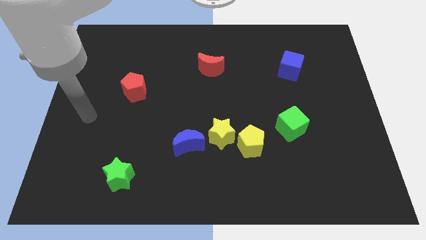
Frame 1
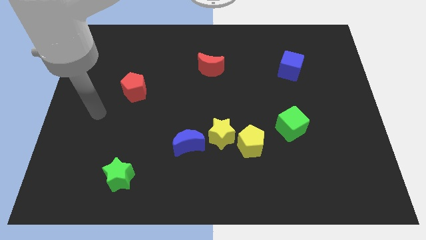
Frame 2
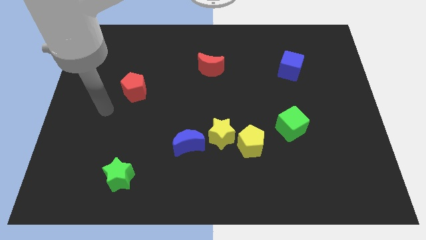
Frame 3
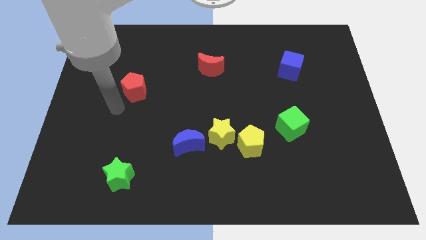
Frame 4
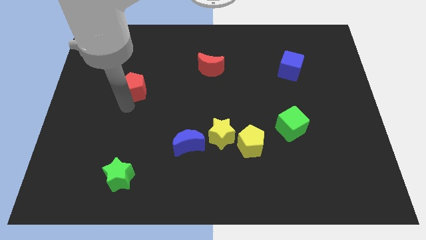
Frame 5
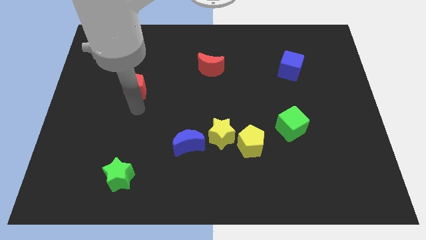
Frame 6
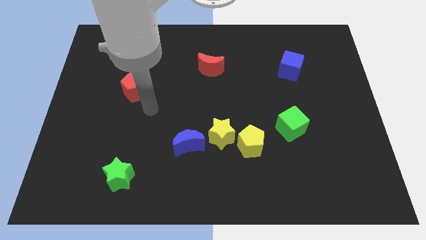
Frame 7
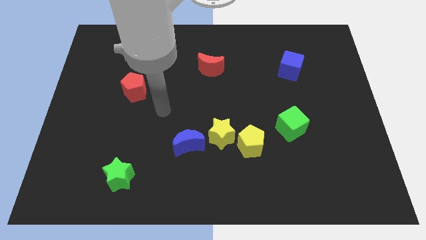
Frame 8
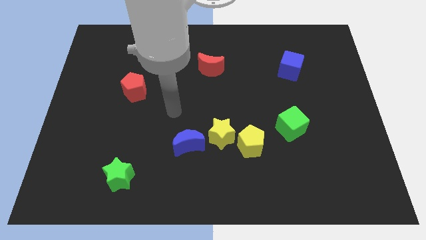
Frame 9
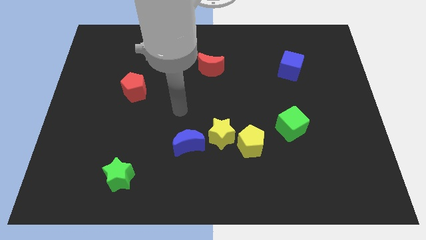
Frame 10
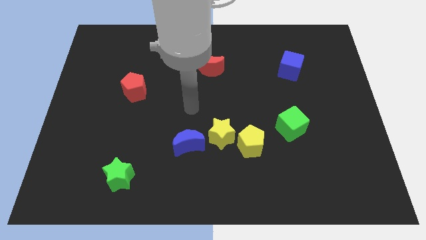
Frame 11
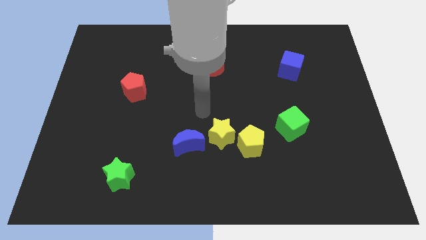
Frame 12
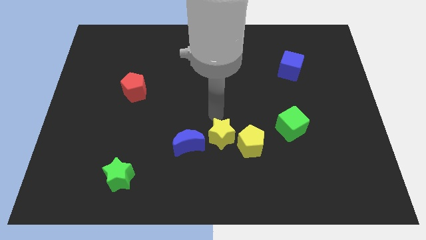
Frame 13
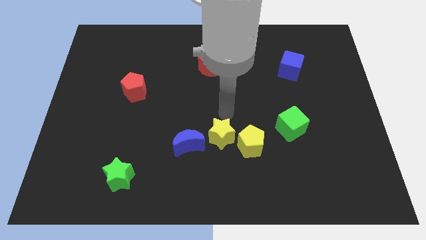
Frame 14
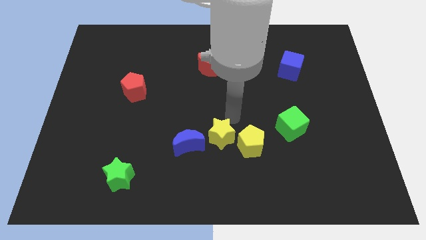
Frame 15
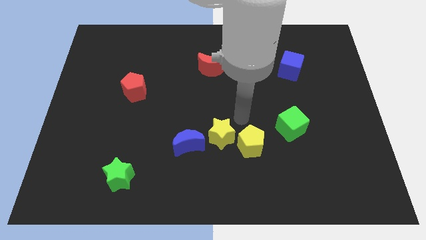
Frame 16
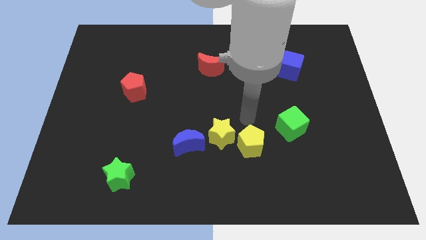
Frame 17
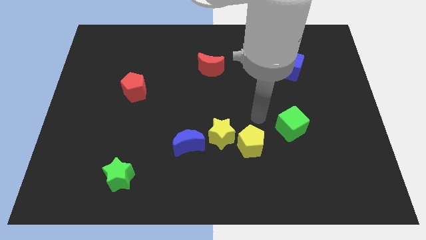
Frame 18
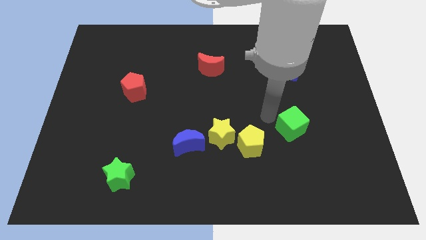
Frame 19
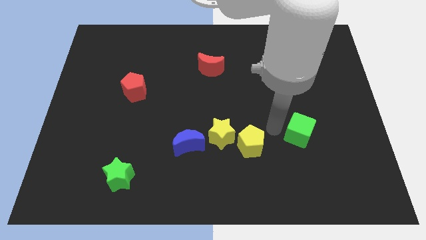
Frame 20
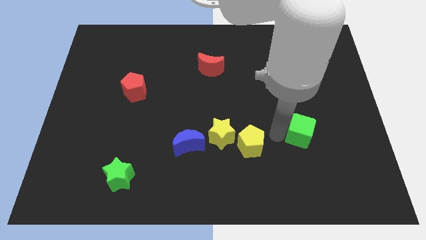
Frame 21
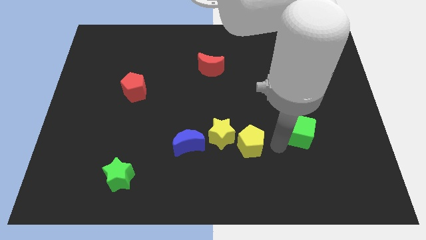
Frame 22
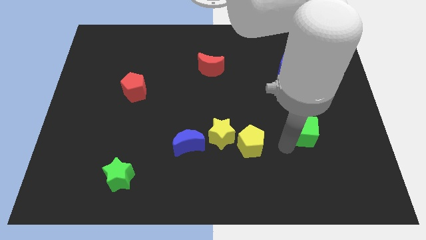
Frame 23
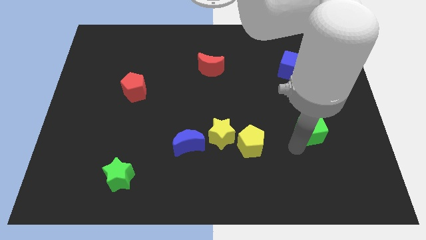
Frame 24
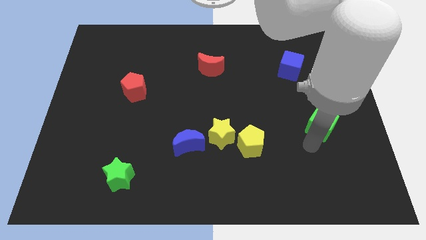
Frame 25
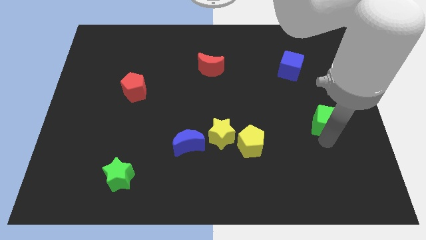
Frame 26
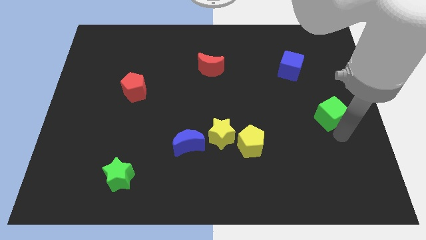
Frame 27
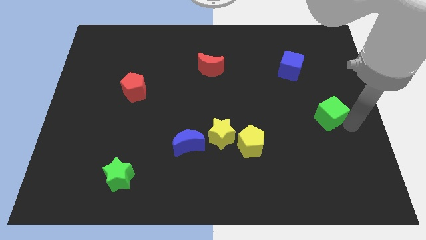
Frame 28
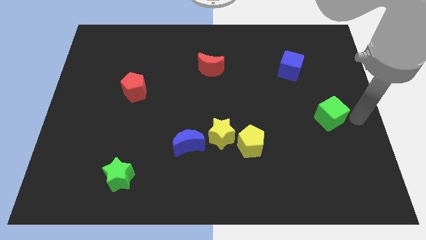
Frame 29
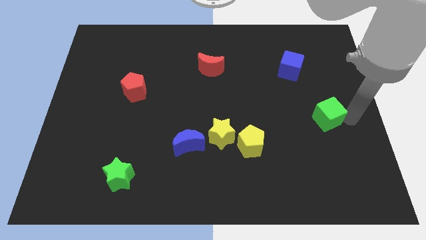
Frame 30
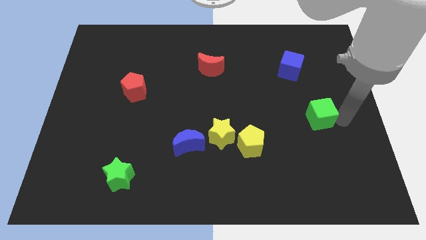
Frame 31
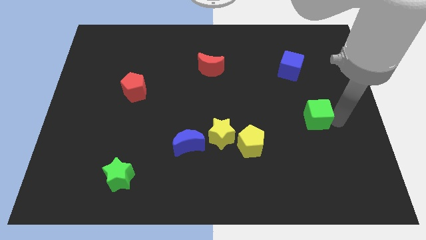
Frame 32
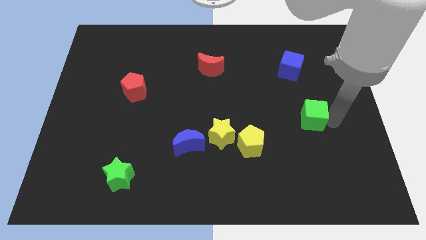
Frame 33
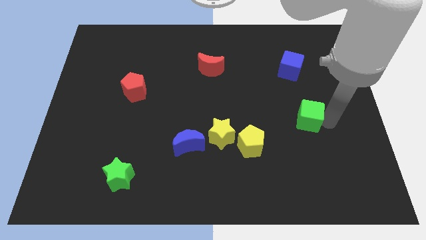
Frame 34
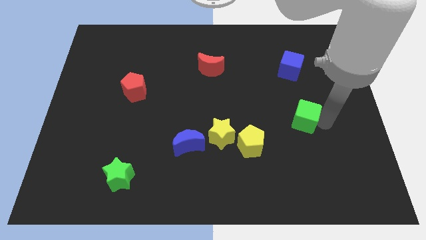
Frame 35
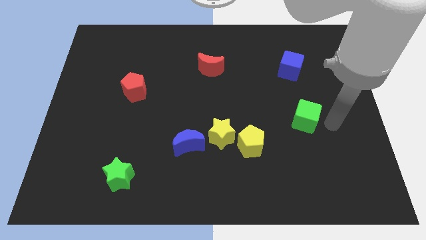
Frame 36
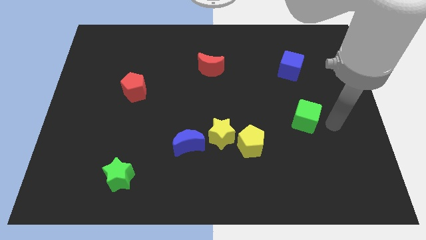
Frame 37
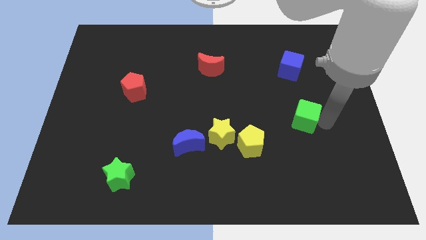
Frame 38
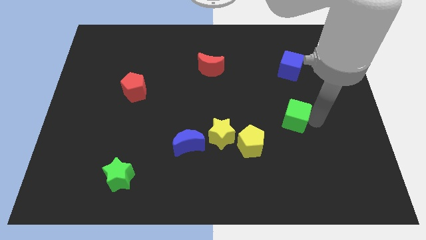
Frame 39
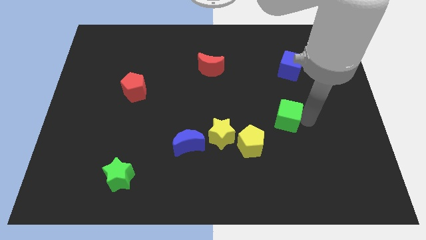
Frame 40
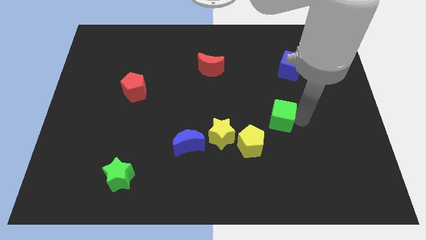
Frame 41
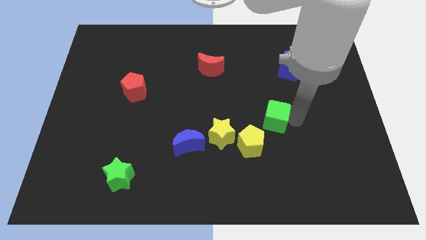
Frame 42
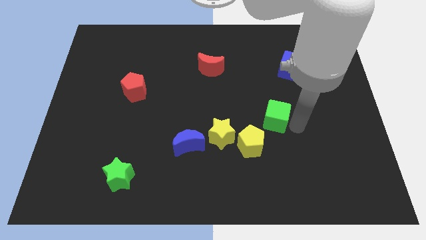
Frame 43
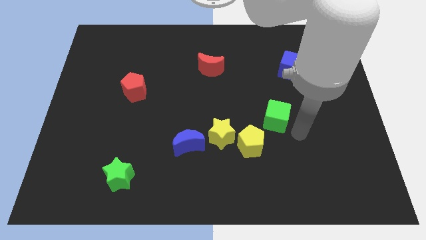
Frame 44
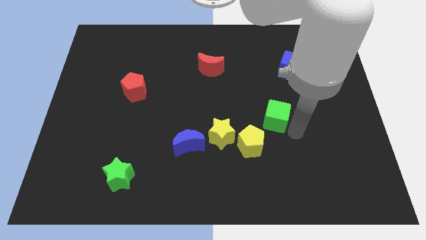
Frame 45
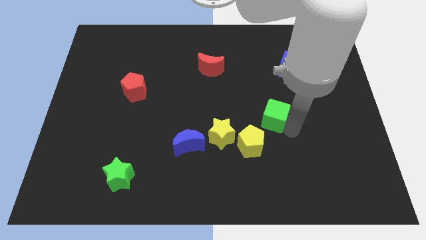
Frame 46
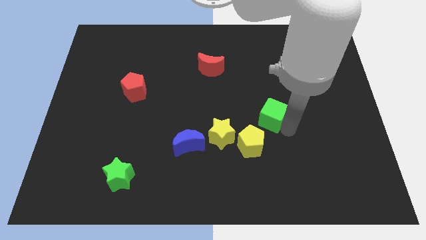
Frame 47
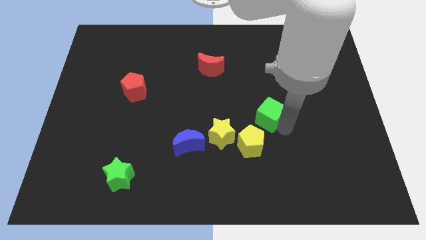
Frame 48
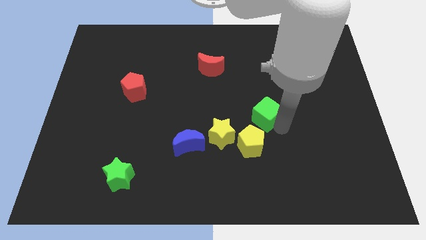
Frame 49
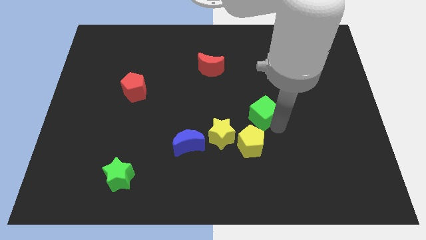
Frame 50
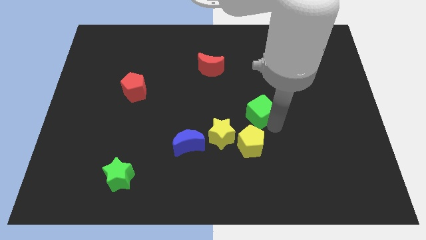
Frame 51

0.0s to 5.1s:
slightly slide the green cube up and left

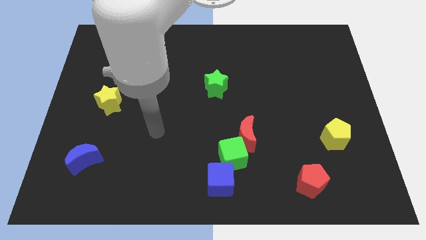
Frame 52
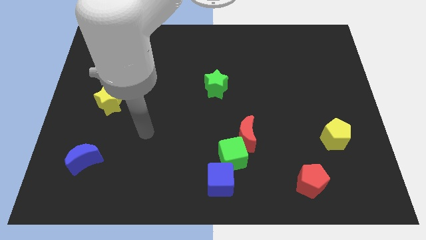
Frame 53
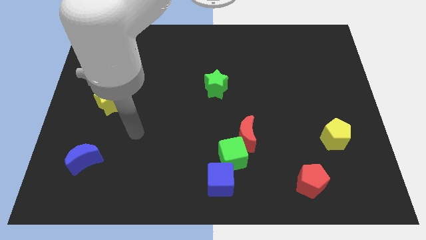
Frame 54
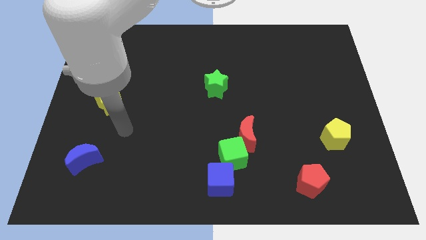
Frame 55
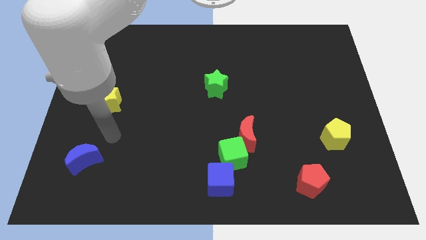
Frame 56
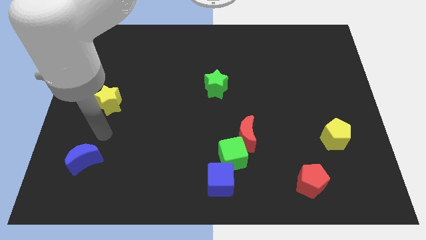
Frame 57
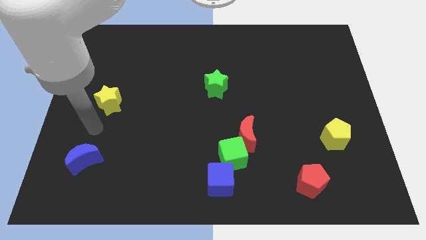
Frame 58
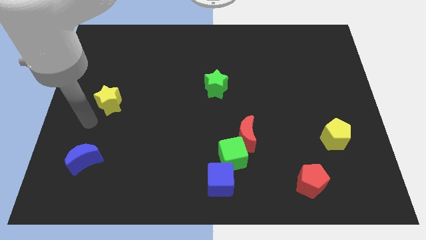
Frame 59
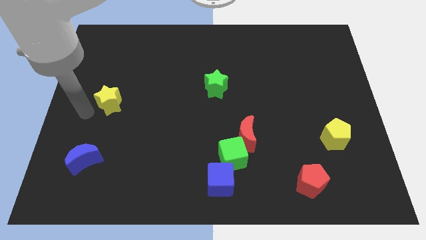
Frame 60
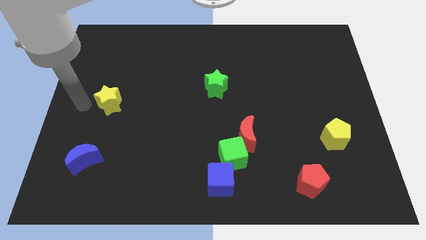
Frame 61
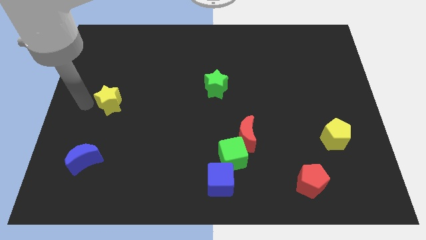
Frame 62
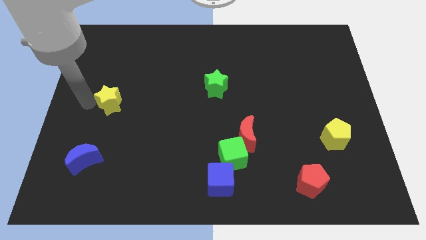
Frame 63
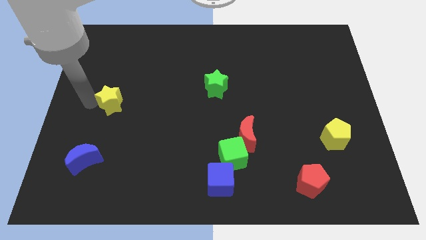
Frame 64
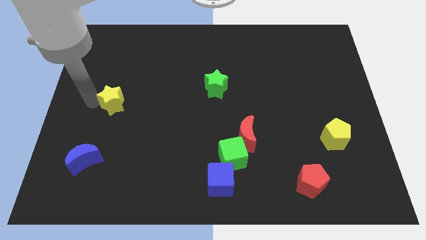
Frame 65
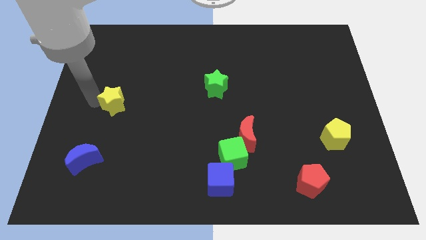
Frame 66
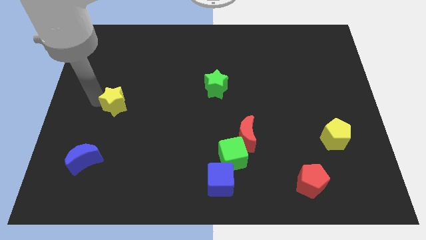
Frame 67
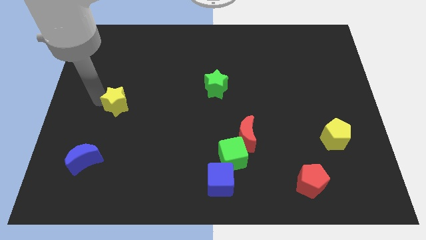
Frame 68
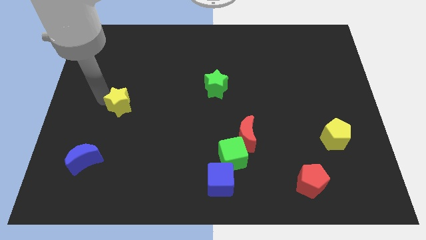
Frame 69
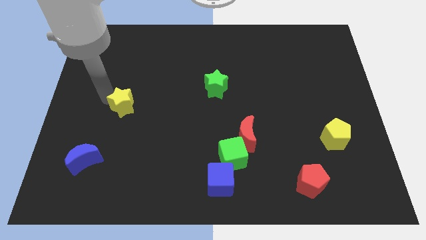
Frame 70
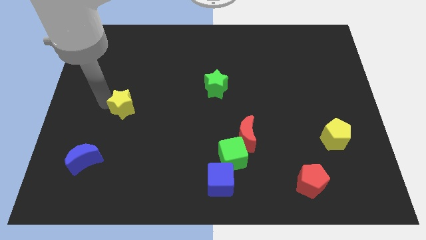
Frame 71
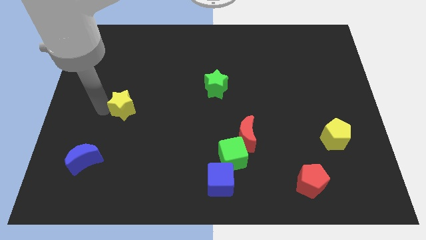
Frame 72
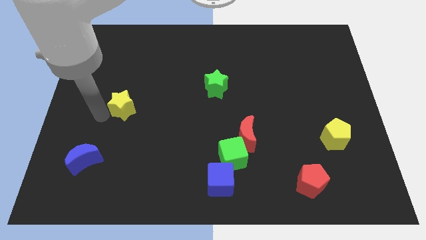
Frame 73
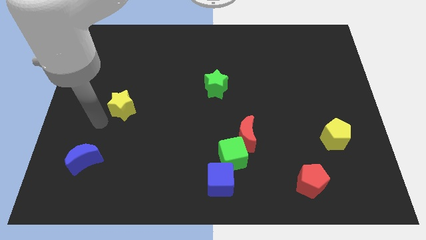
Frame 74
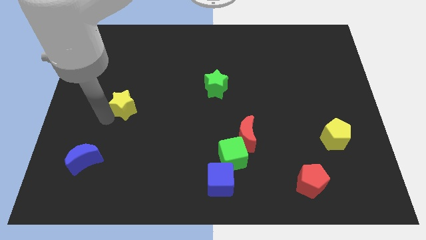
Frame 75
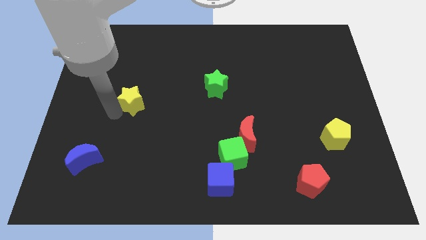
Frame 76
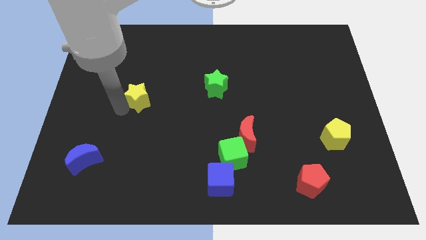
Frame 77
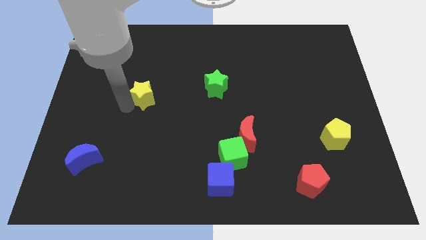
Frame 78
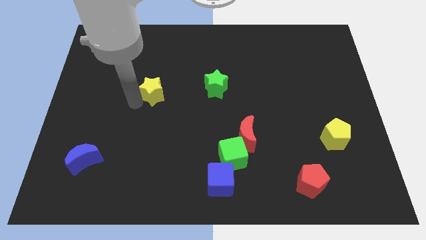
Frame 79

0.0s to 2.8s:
move the yellow star upwards and to the right a little bit

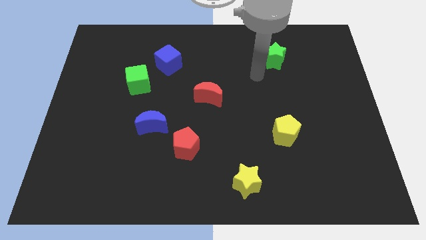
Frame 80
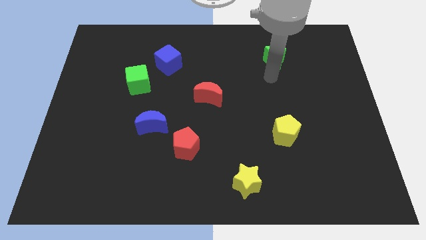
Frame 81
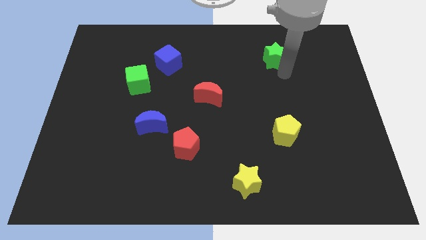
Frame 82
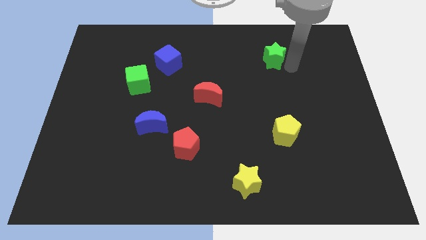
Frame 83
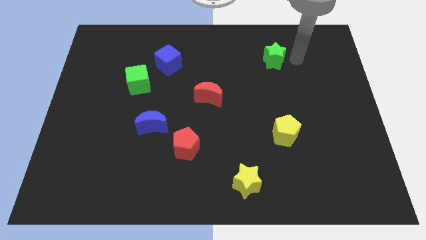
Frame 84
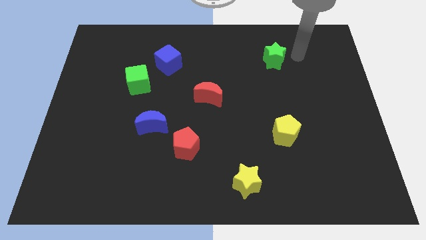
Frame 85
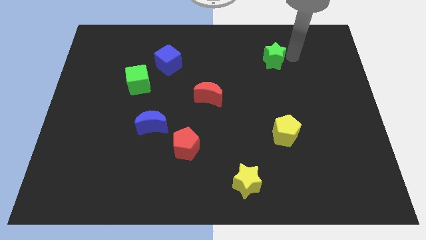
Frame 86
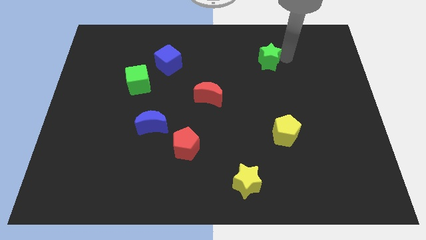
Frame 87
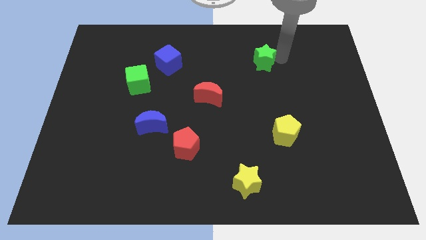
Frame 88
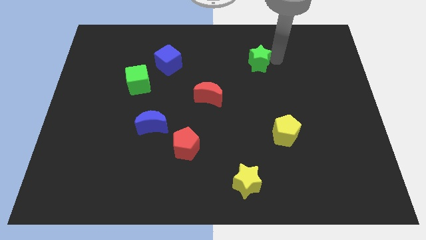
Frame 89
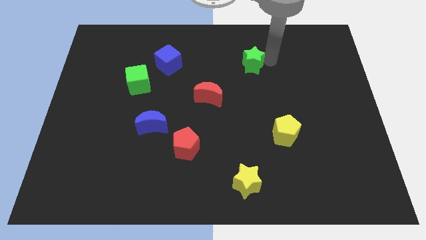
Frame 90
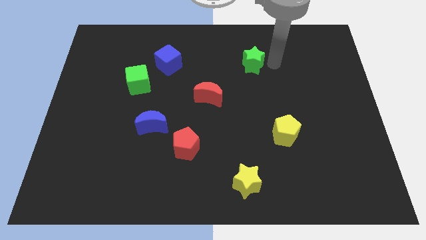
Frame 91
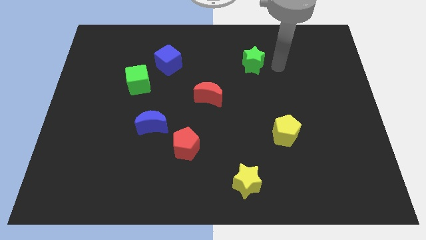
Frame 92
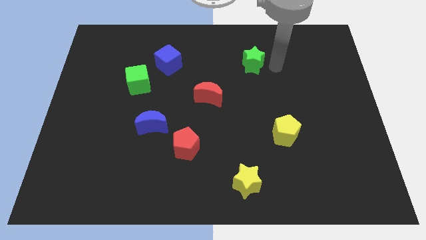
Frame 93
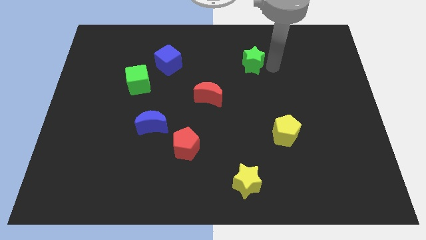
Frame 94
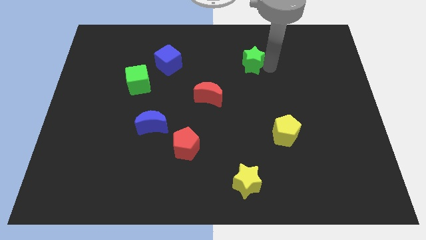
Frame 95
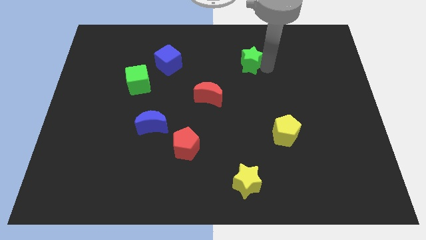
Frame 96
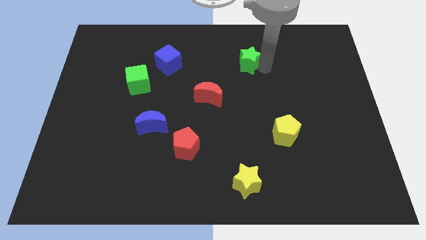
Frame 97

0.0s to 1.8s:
slightly push the green star left
